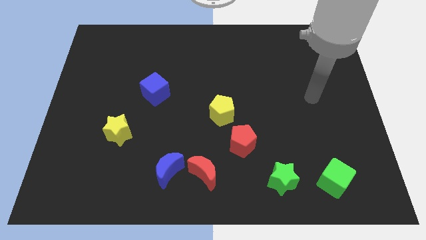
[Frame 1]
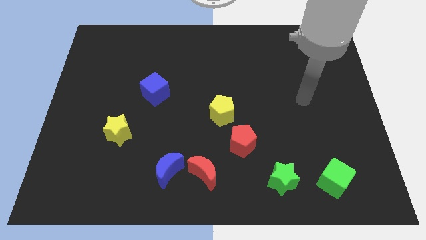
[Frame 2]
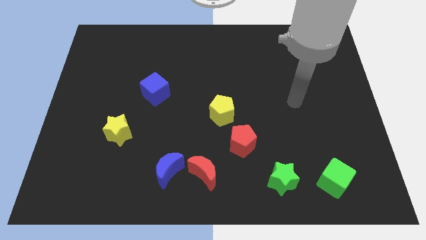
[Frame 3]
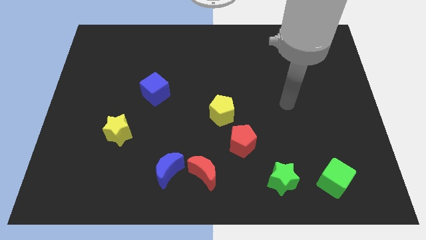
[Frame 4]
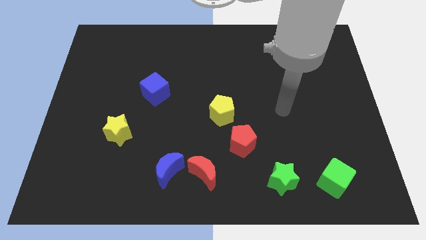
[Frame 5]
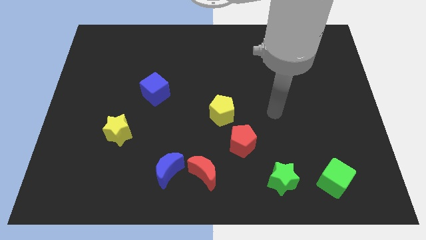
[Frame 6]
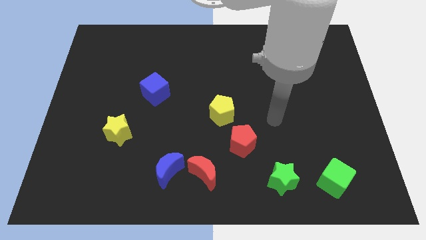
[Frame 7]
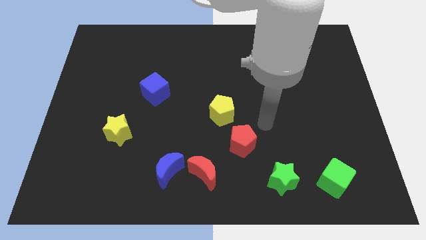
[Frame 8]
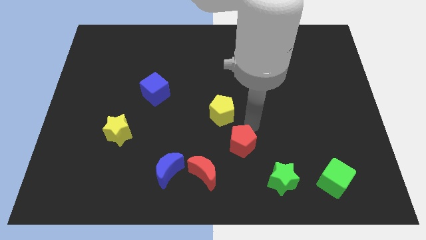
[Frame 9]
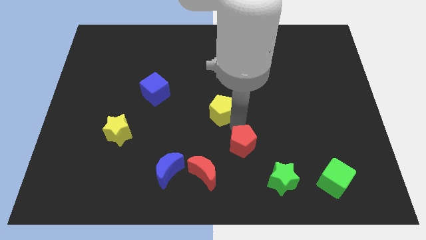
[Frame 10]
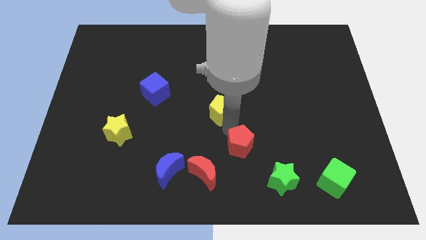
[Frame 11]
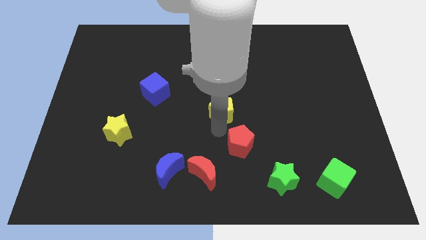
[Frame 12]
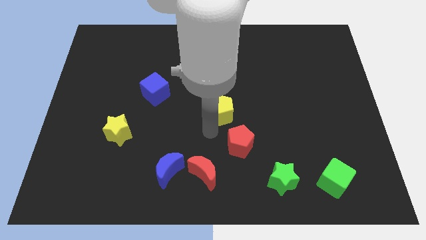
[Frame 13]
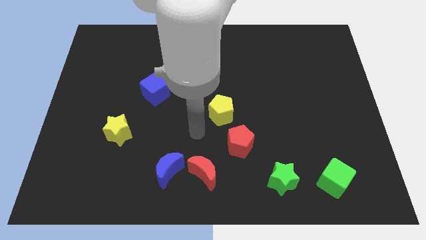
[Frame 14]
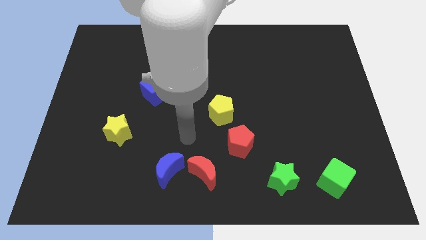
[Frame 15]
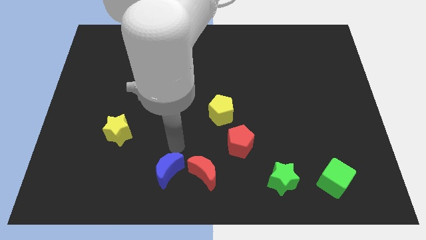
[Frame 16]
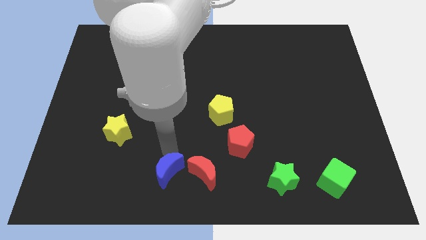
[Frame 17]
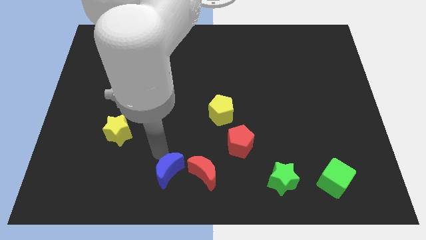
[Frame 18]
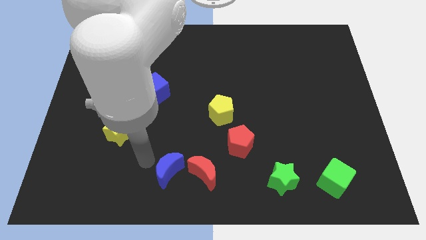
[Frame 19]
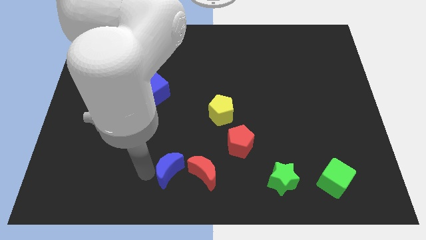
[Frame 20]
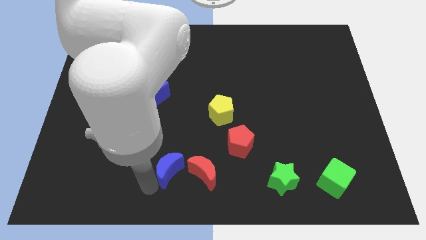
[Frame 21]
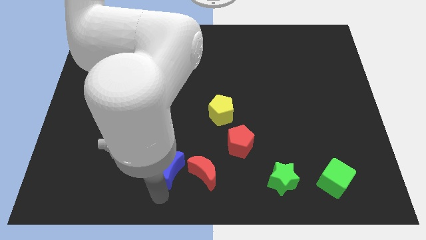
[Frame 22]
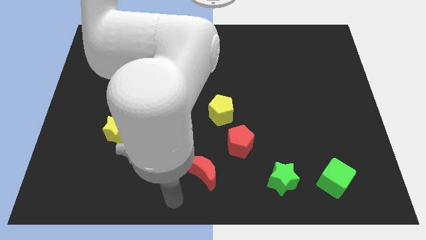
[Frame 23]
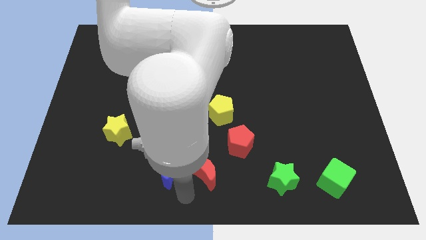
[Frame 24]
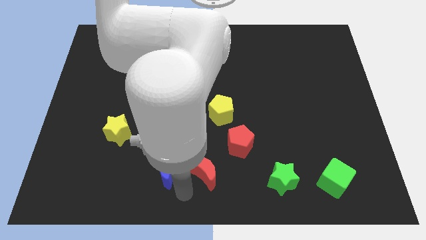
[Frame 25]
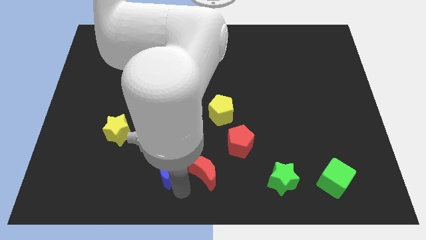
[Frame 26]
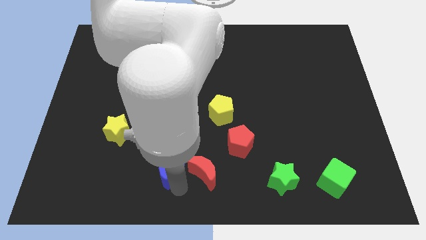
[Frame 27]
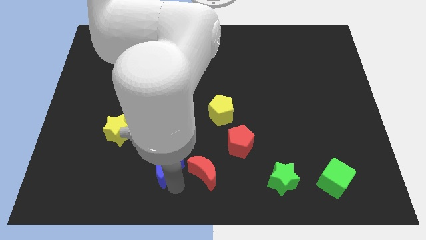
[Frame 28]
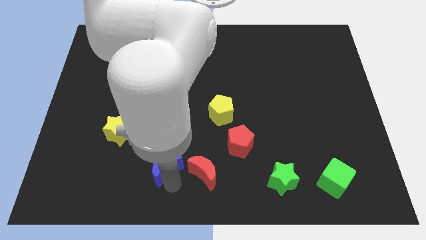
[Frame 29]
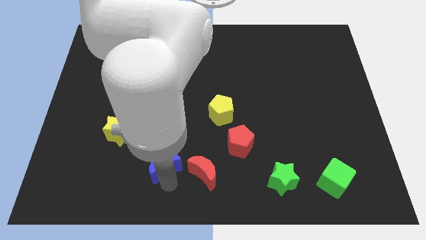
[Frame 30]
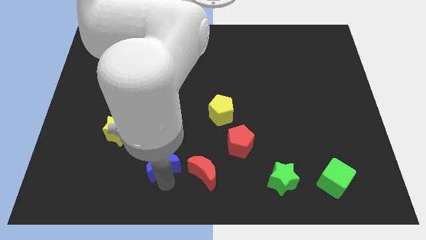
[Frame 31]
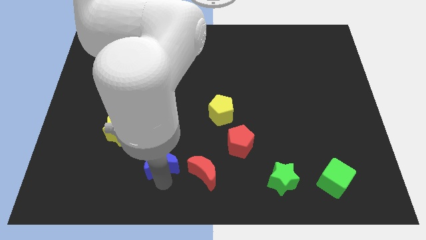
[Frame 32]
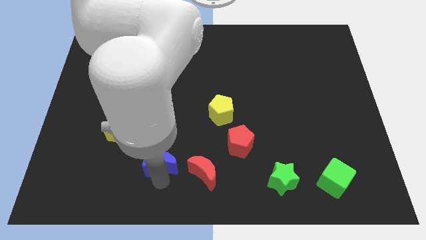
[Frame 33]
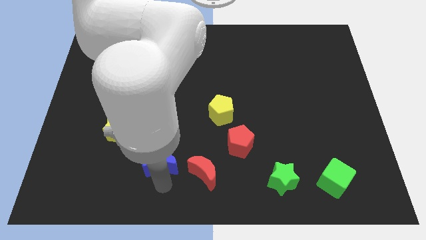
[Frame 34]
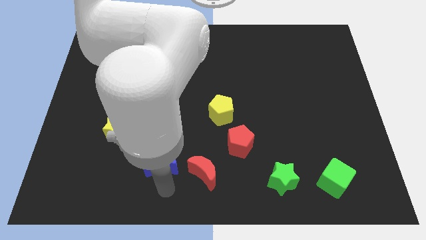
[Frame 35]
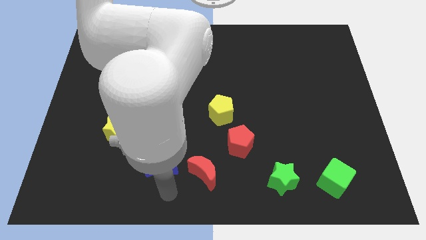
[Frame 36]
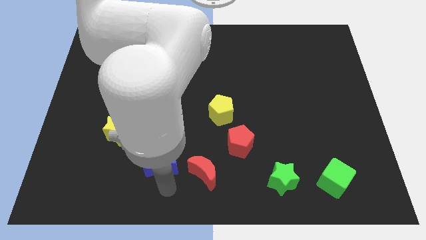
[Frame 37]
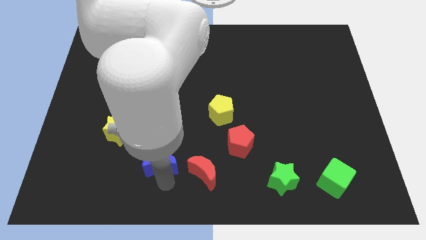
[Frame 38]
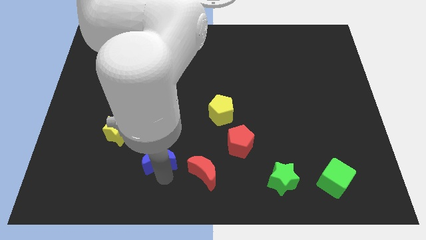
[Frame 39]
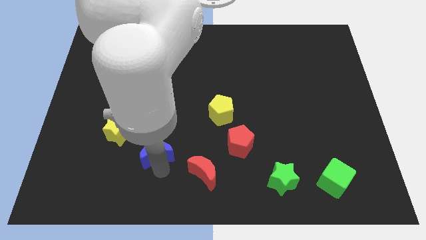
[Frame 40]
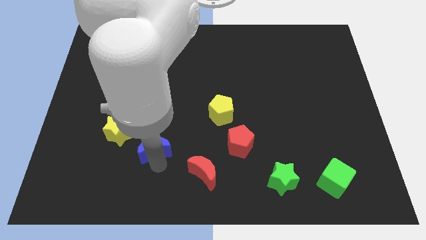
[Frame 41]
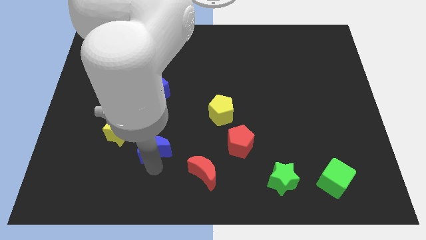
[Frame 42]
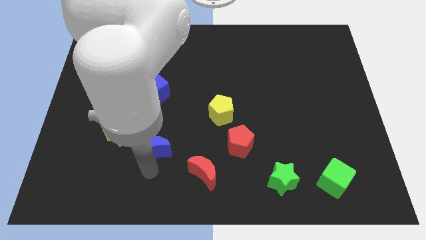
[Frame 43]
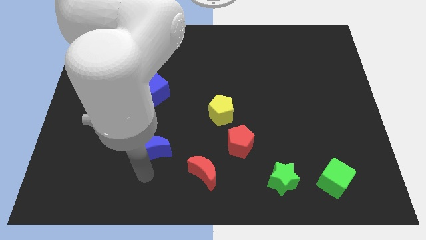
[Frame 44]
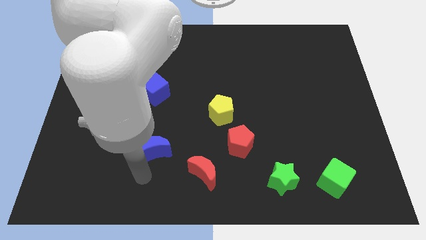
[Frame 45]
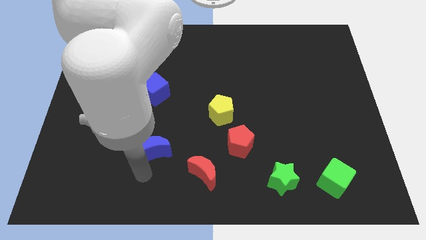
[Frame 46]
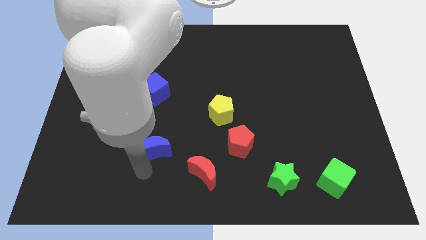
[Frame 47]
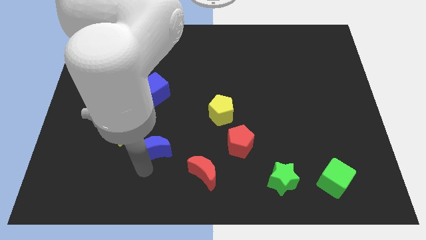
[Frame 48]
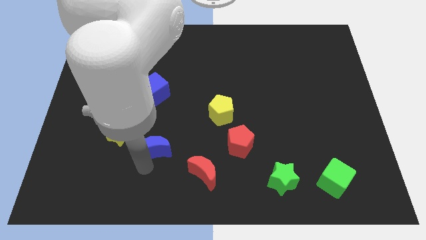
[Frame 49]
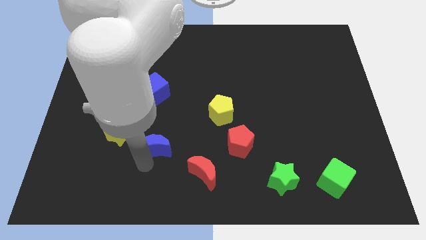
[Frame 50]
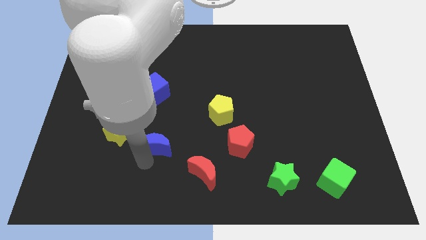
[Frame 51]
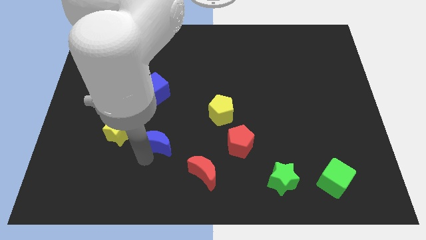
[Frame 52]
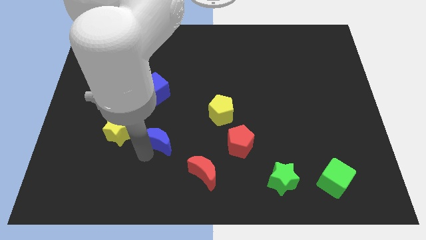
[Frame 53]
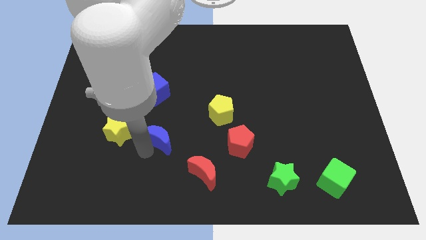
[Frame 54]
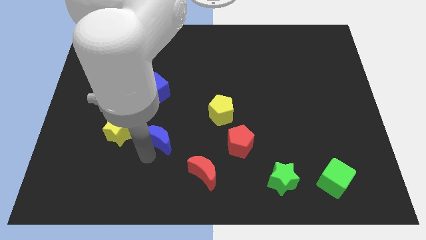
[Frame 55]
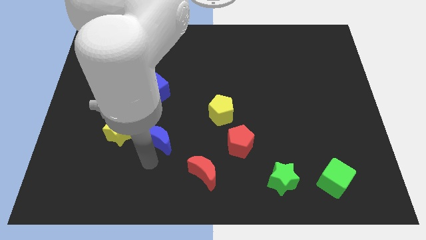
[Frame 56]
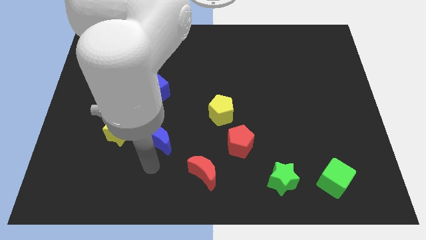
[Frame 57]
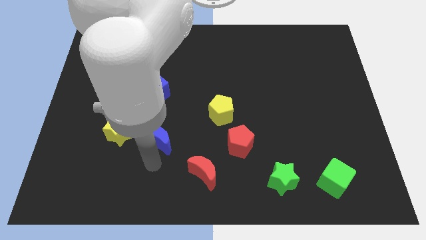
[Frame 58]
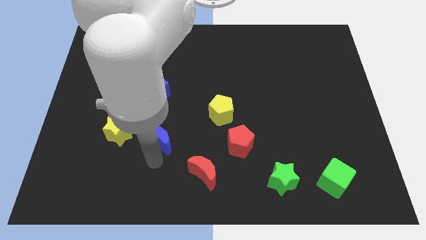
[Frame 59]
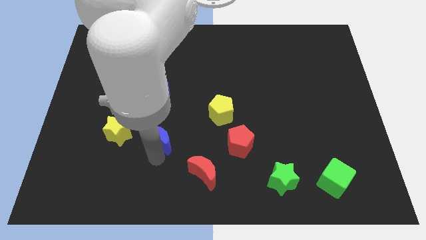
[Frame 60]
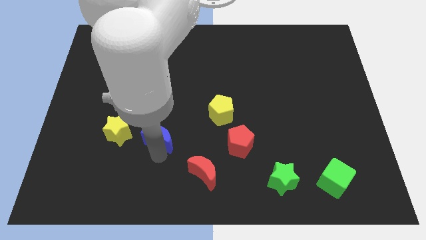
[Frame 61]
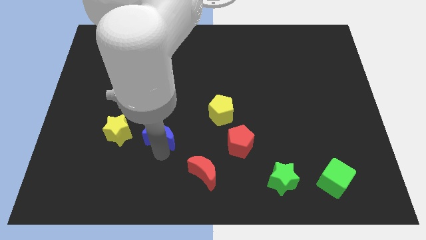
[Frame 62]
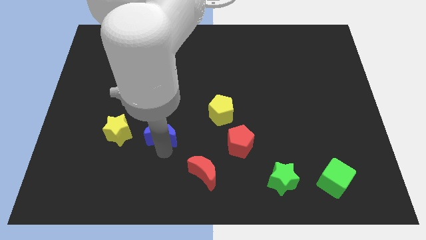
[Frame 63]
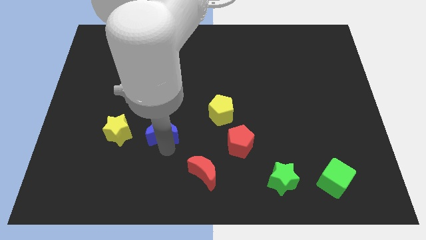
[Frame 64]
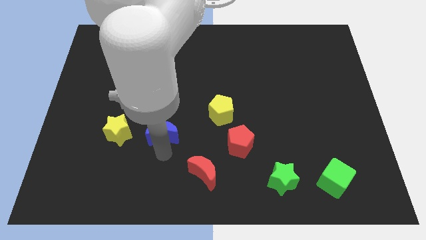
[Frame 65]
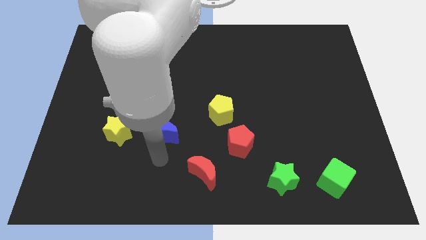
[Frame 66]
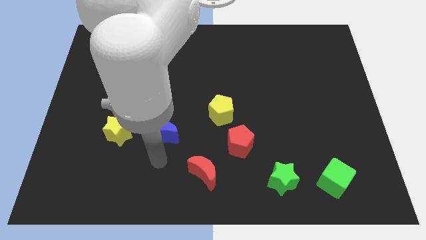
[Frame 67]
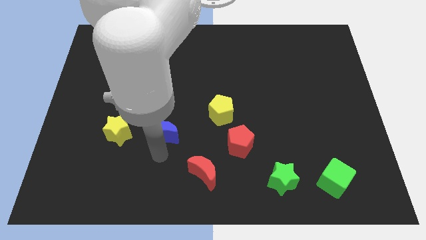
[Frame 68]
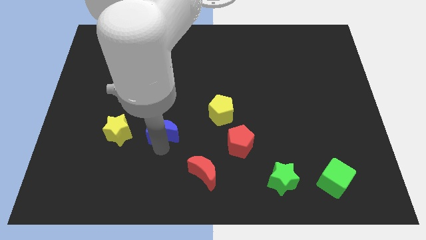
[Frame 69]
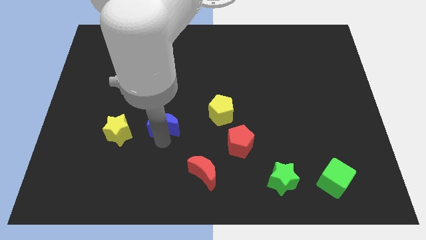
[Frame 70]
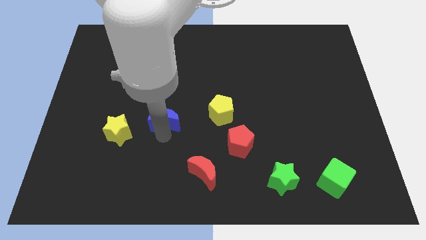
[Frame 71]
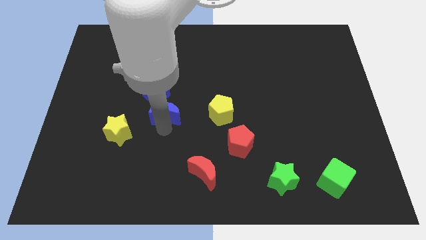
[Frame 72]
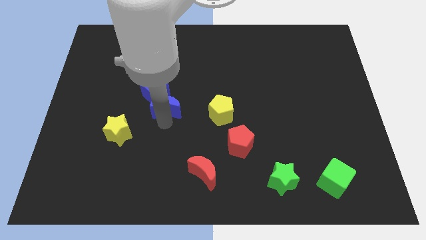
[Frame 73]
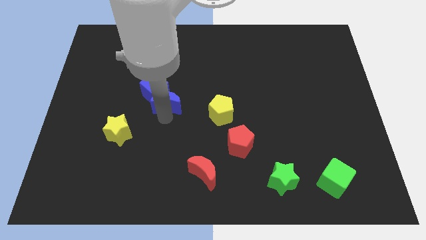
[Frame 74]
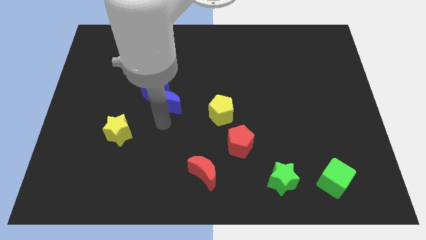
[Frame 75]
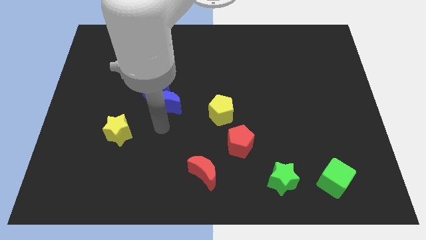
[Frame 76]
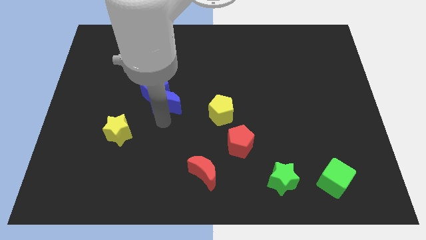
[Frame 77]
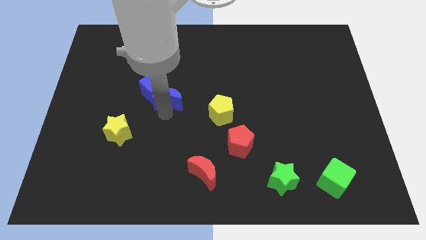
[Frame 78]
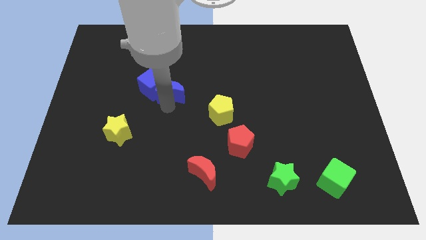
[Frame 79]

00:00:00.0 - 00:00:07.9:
move the blue moon up

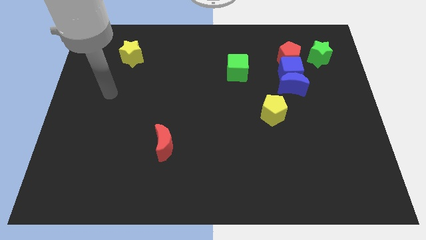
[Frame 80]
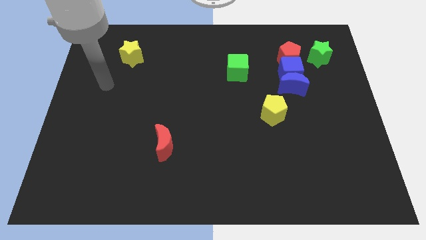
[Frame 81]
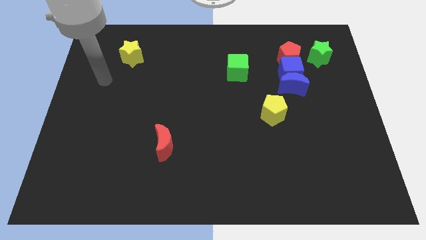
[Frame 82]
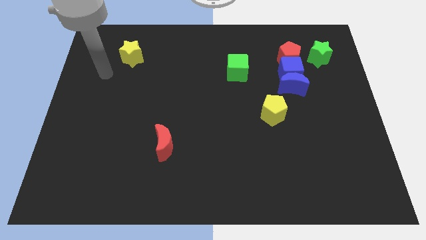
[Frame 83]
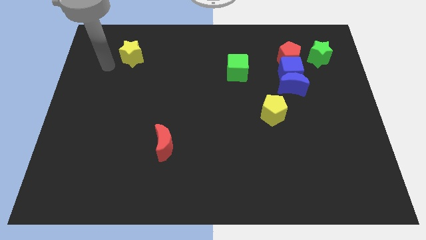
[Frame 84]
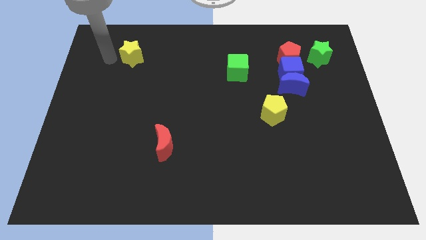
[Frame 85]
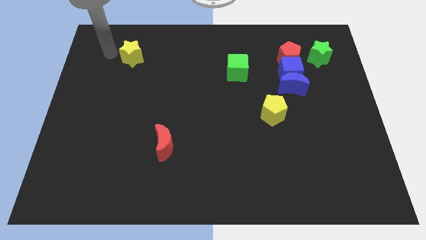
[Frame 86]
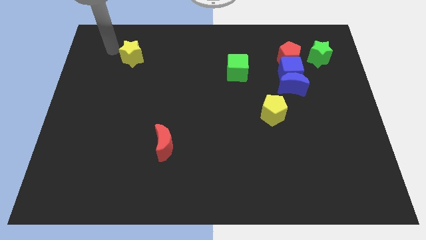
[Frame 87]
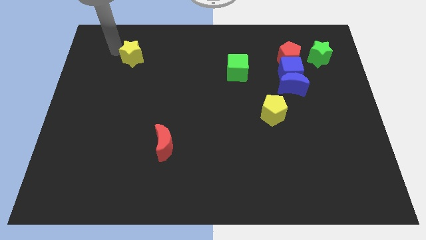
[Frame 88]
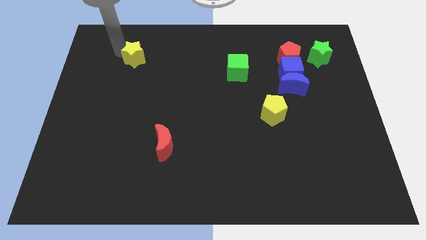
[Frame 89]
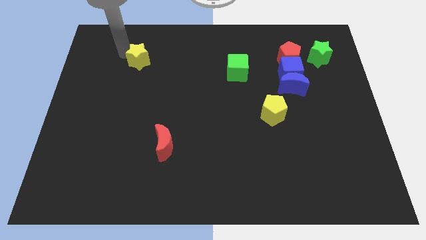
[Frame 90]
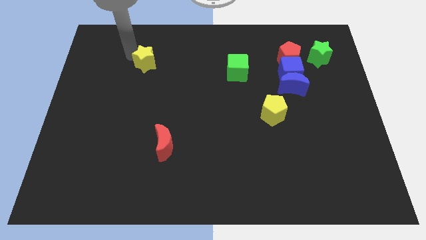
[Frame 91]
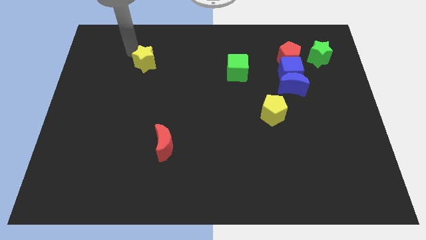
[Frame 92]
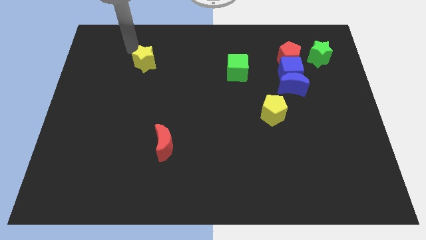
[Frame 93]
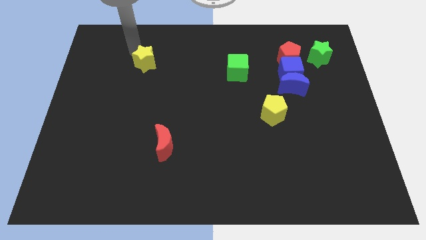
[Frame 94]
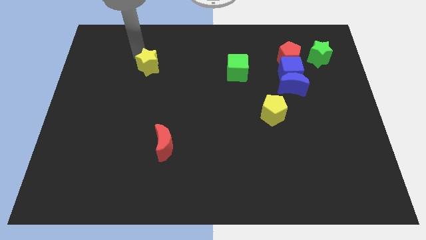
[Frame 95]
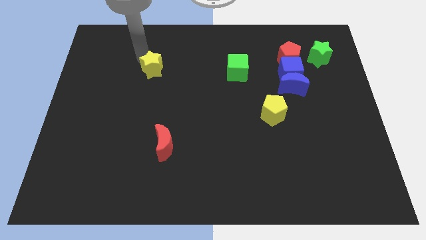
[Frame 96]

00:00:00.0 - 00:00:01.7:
slightly move the yellow star down and right
